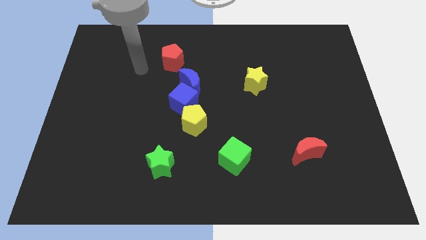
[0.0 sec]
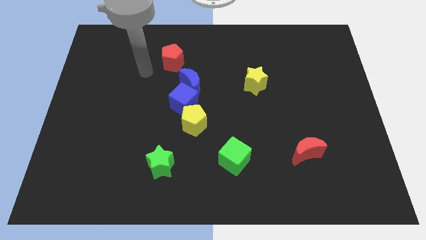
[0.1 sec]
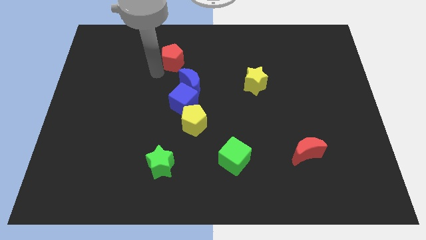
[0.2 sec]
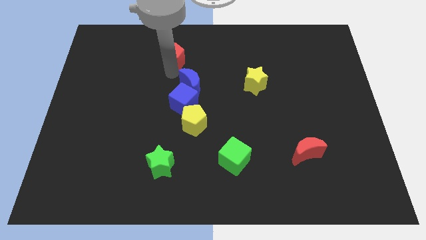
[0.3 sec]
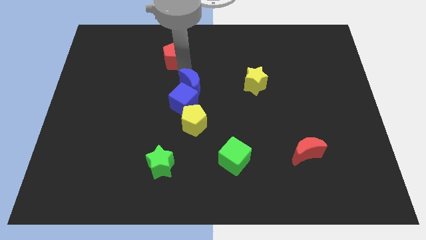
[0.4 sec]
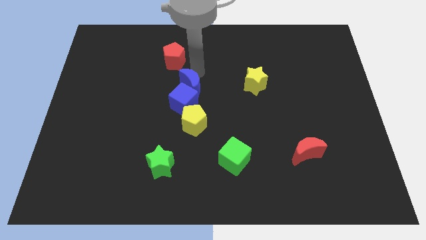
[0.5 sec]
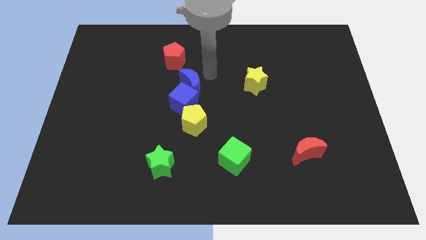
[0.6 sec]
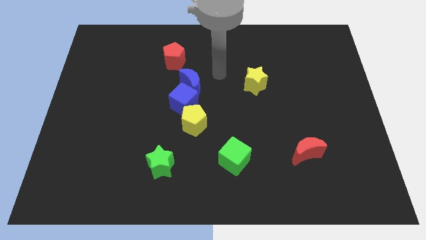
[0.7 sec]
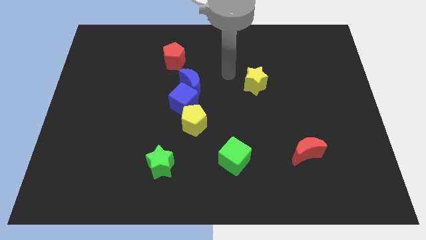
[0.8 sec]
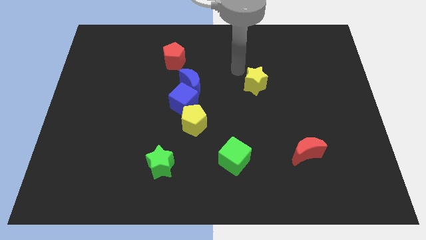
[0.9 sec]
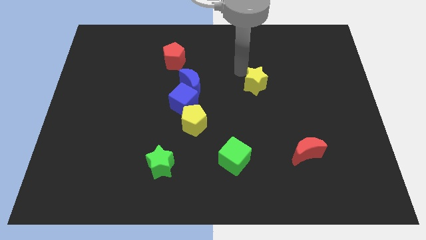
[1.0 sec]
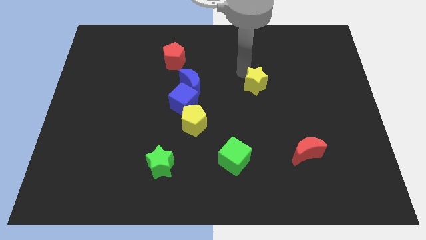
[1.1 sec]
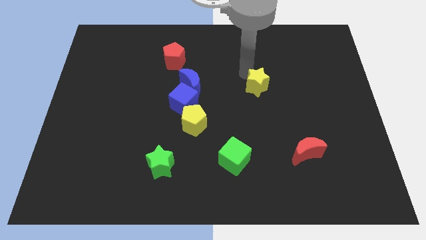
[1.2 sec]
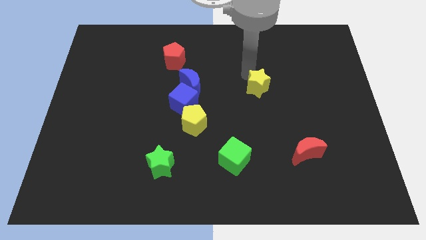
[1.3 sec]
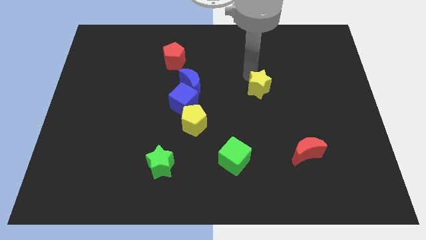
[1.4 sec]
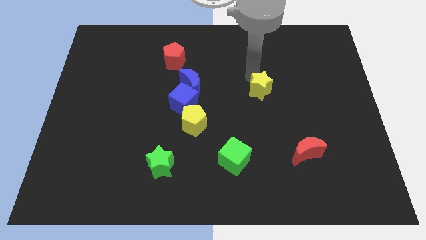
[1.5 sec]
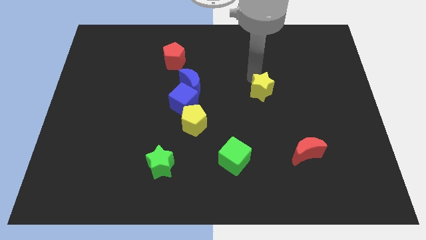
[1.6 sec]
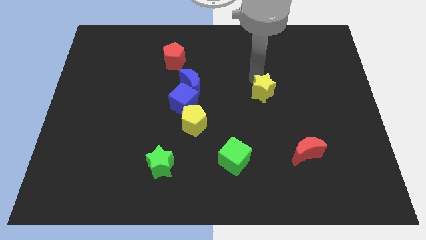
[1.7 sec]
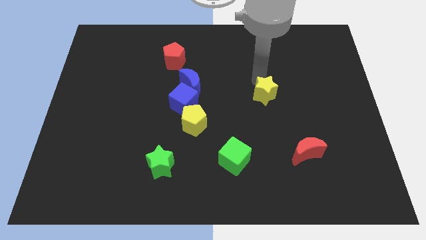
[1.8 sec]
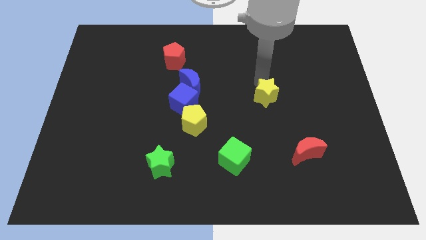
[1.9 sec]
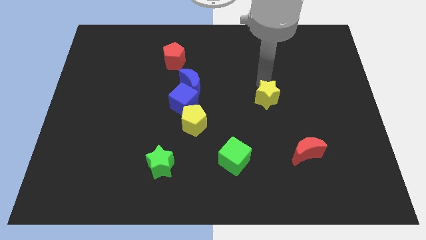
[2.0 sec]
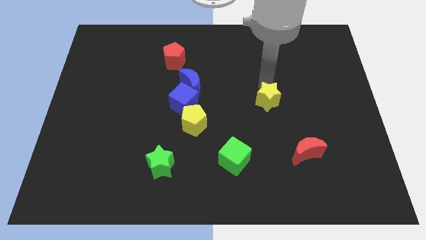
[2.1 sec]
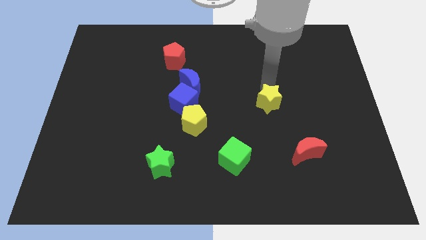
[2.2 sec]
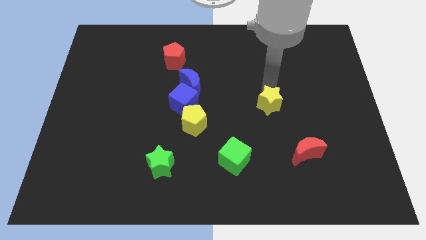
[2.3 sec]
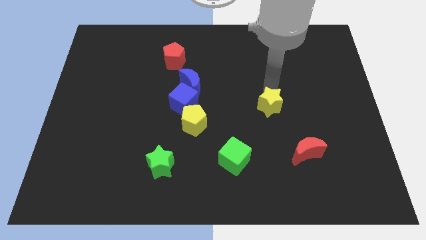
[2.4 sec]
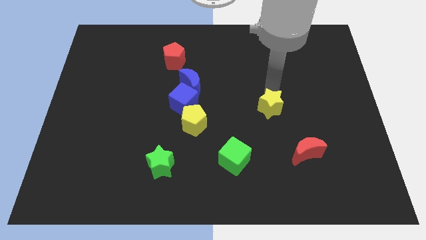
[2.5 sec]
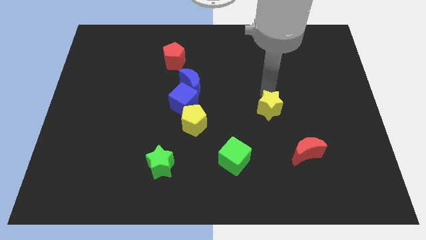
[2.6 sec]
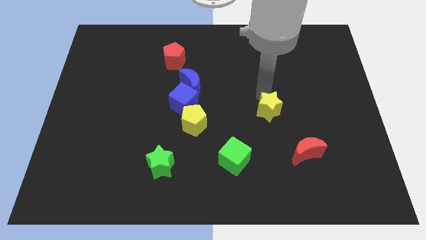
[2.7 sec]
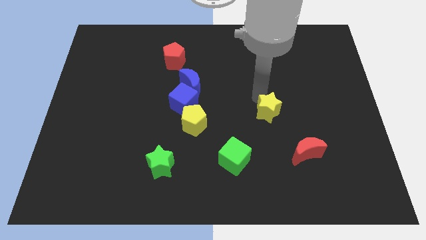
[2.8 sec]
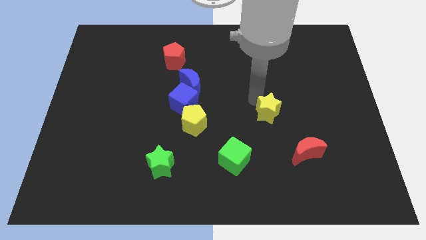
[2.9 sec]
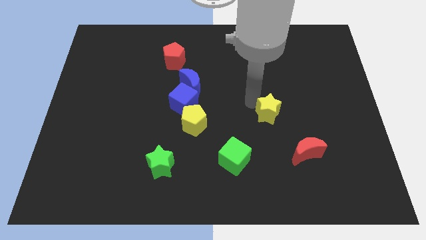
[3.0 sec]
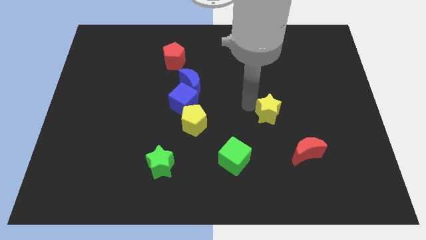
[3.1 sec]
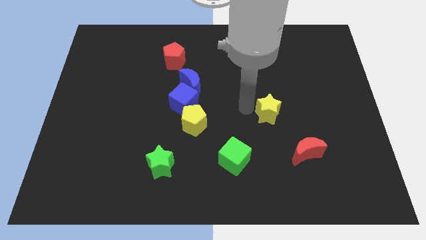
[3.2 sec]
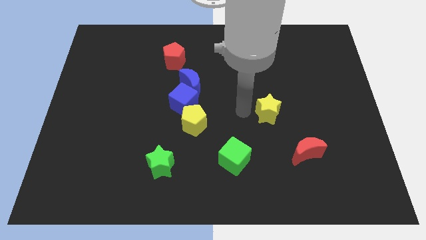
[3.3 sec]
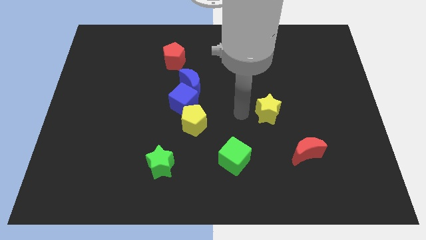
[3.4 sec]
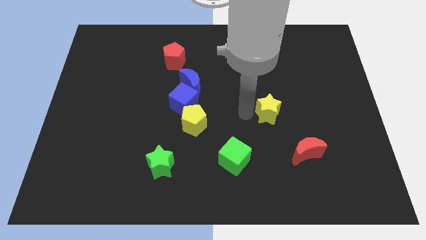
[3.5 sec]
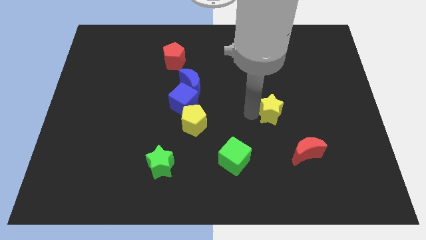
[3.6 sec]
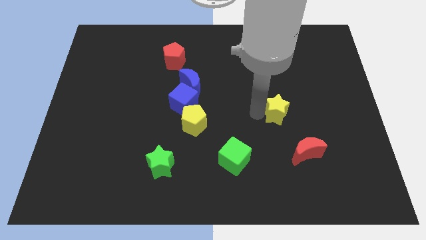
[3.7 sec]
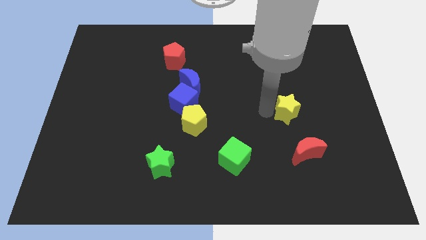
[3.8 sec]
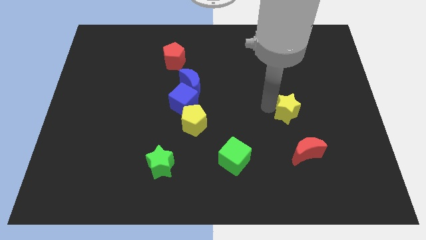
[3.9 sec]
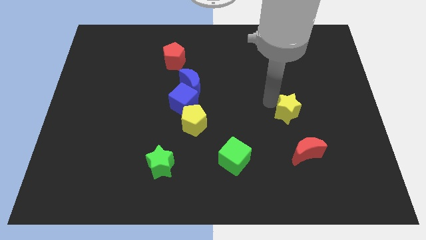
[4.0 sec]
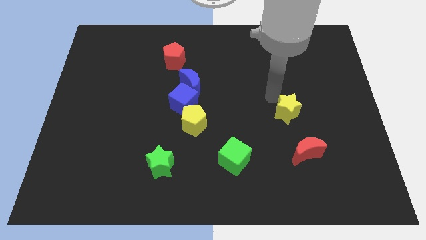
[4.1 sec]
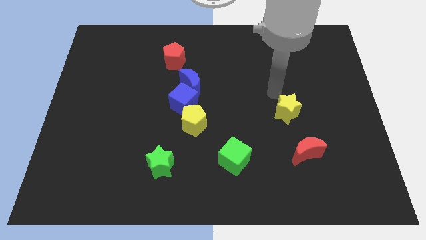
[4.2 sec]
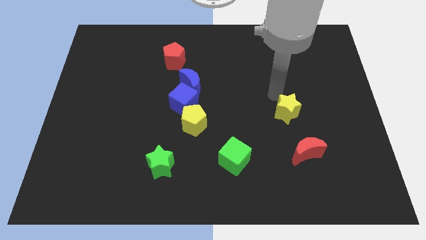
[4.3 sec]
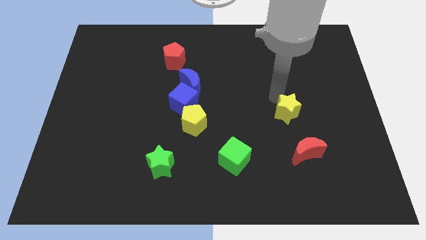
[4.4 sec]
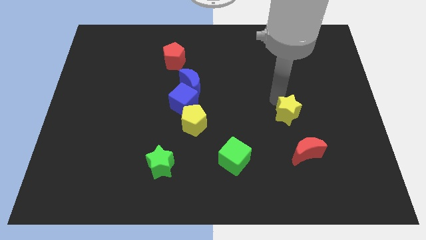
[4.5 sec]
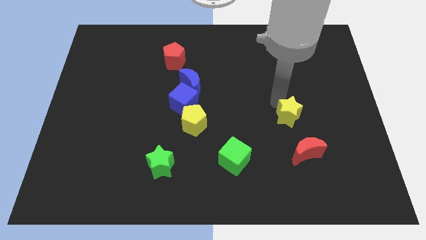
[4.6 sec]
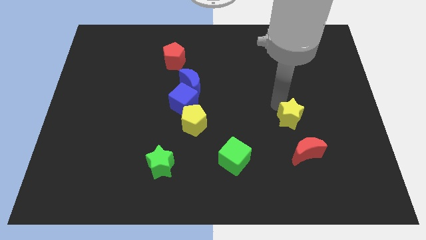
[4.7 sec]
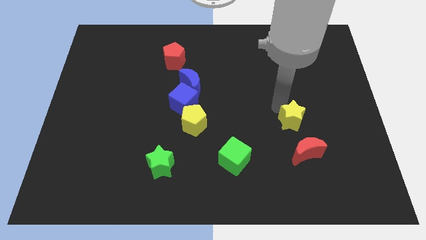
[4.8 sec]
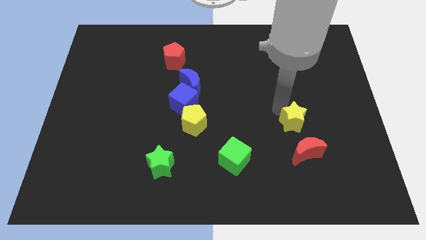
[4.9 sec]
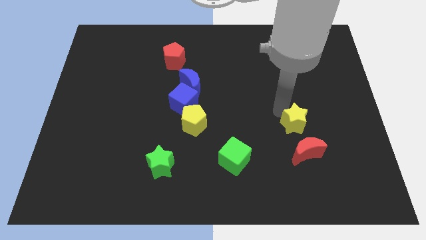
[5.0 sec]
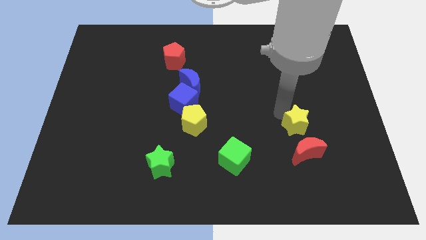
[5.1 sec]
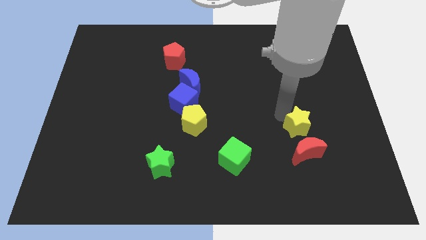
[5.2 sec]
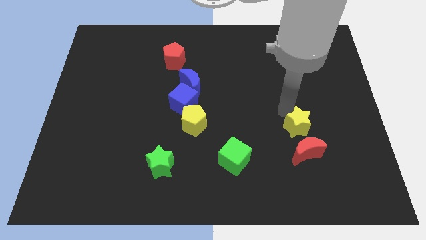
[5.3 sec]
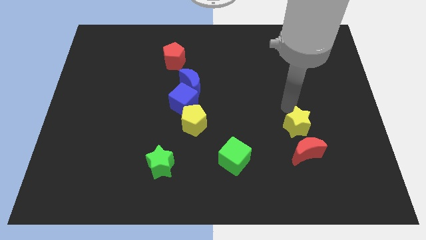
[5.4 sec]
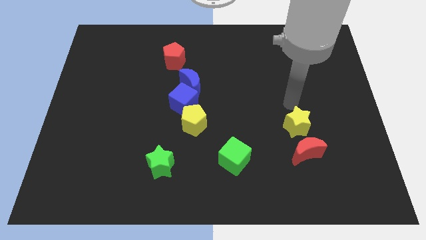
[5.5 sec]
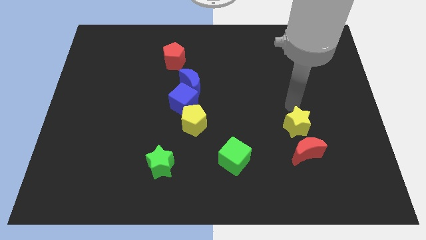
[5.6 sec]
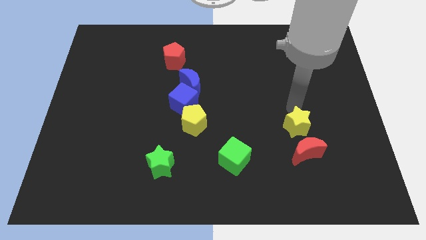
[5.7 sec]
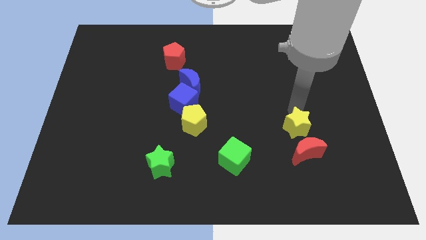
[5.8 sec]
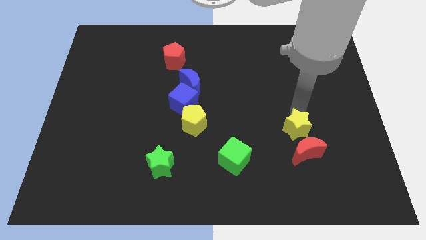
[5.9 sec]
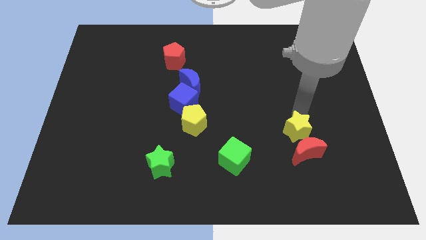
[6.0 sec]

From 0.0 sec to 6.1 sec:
push the yellow star next to the red moon
